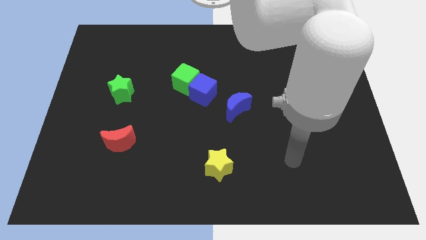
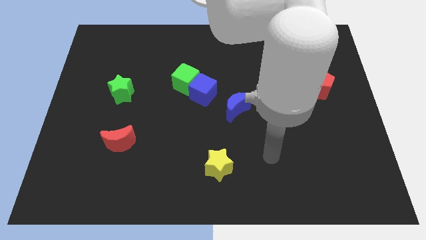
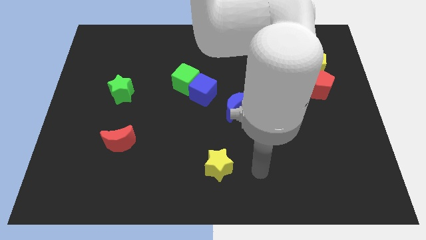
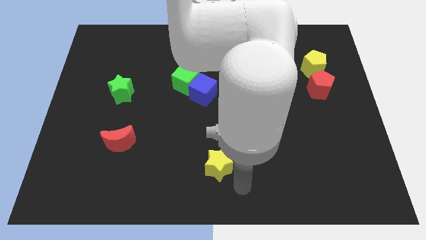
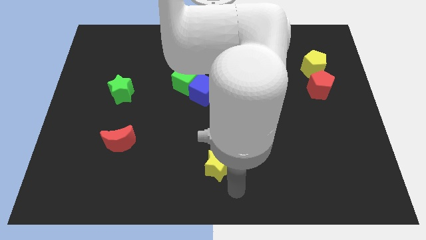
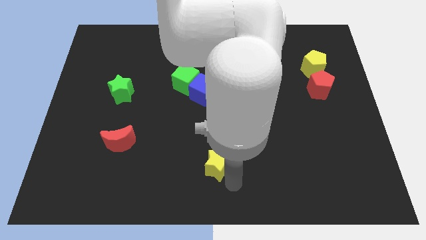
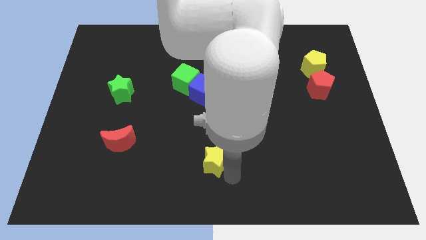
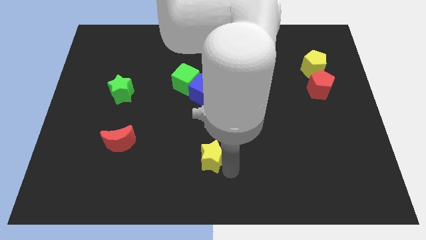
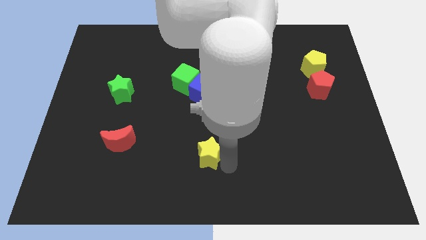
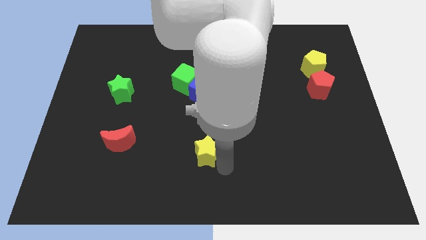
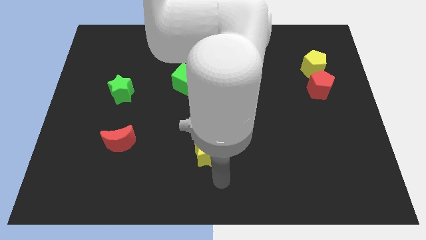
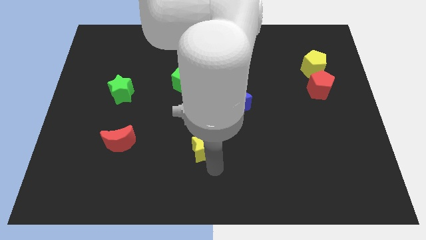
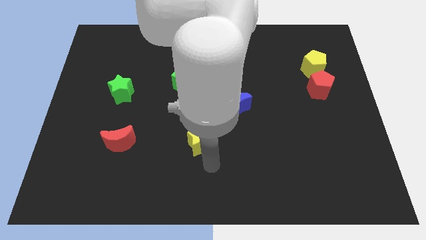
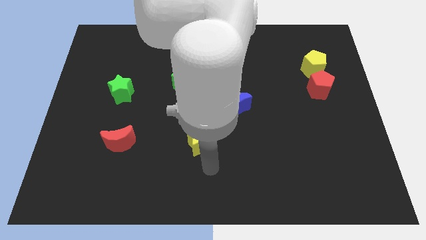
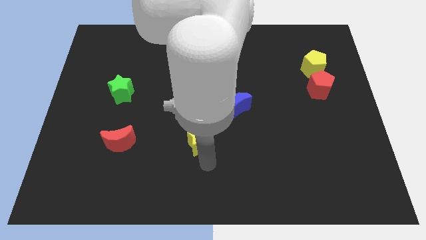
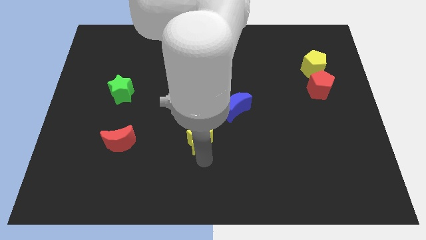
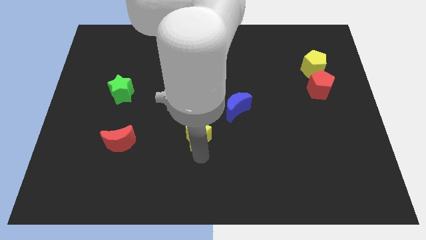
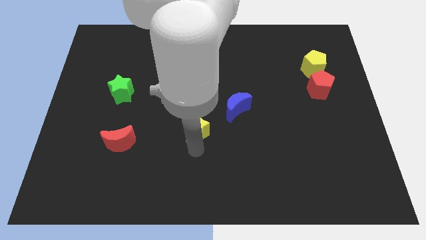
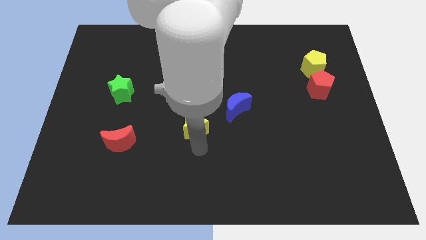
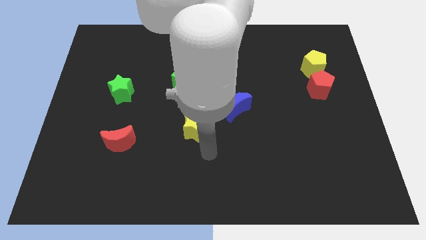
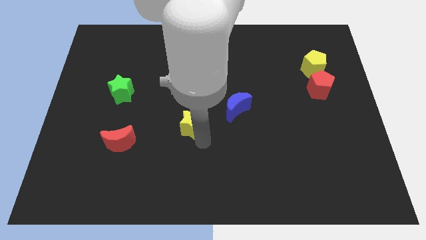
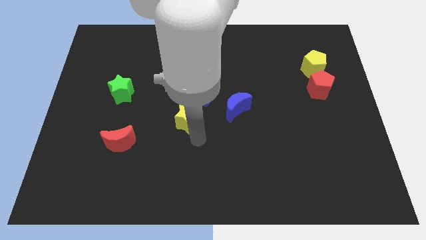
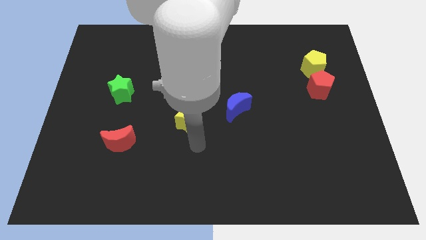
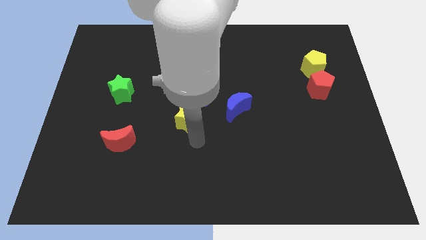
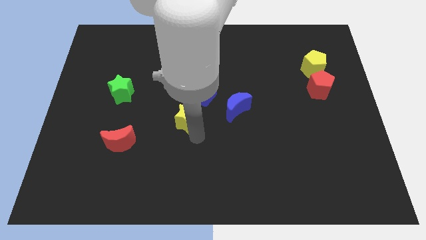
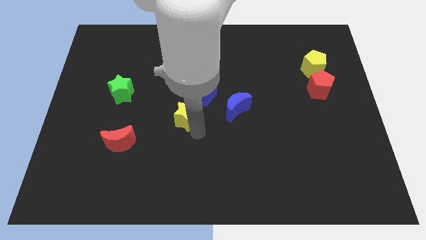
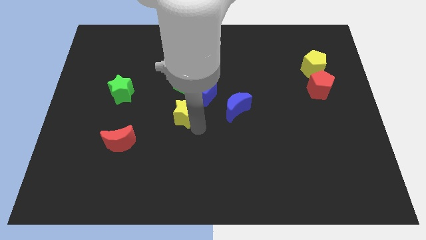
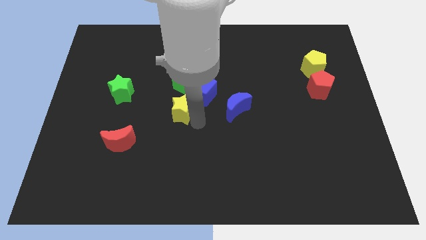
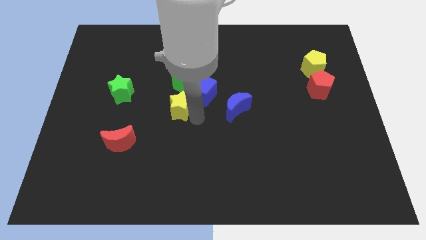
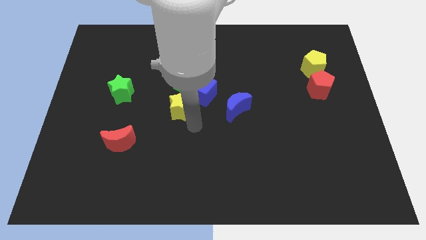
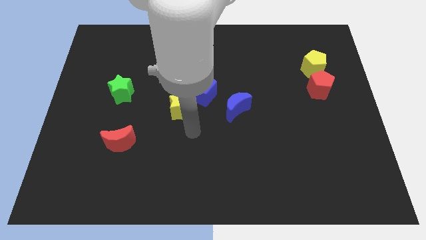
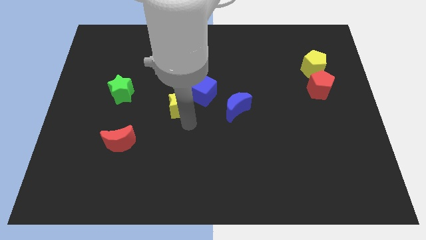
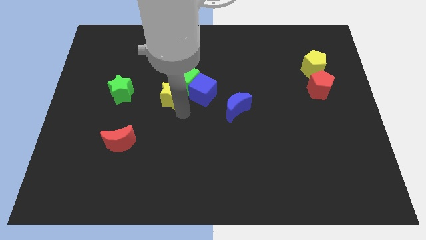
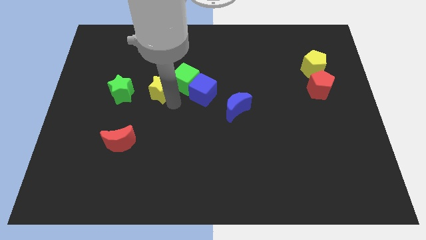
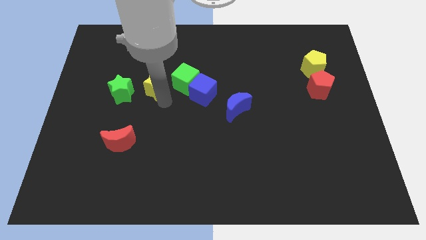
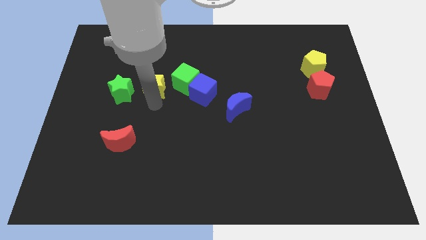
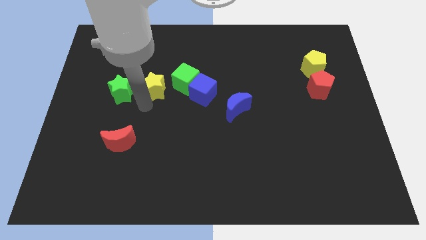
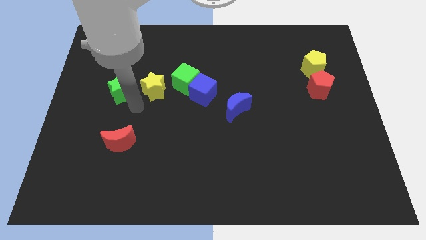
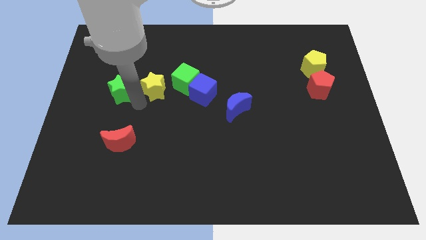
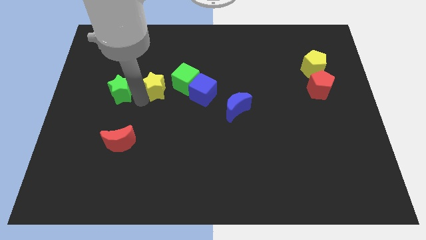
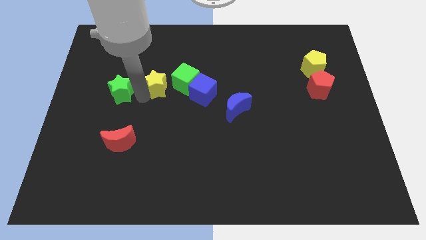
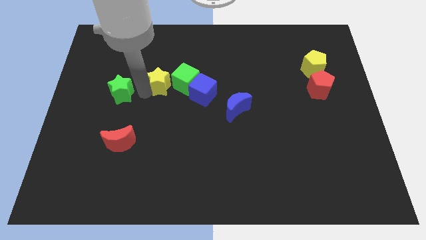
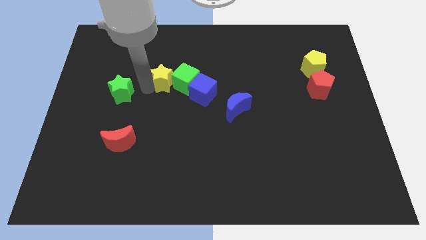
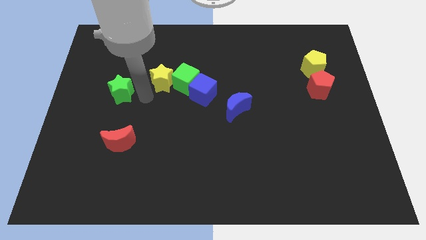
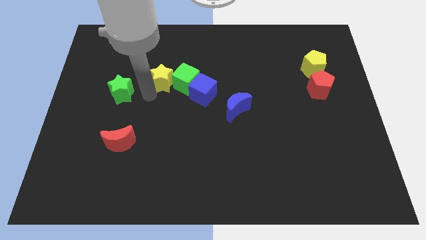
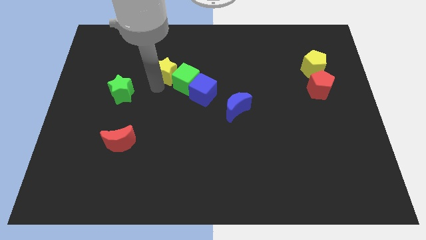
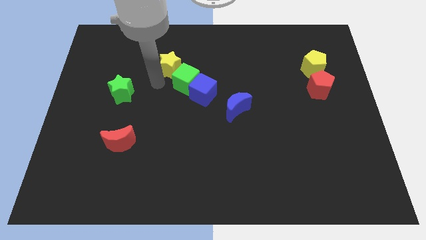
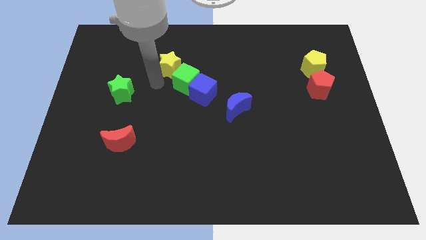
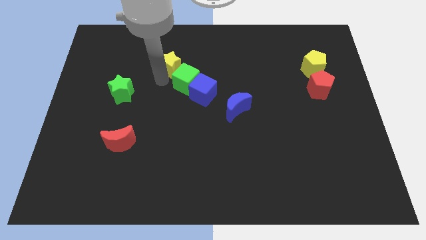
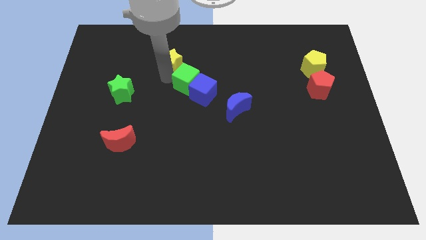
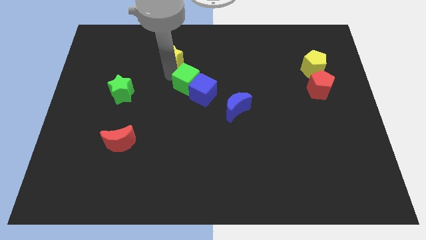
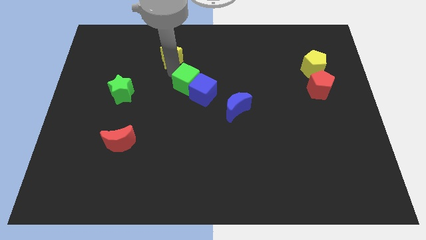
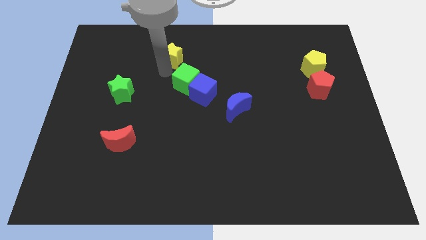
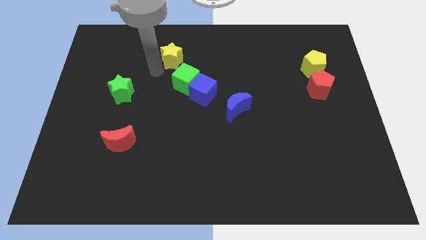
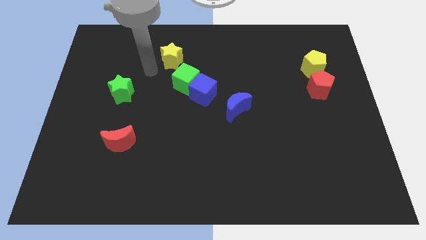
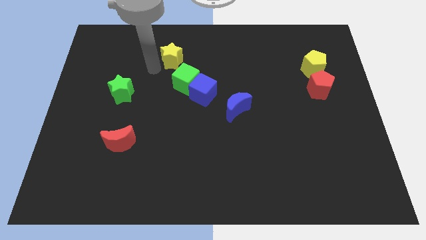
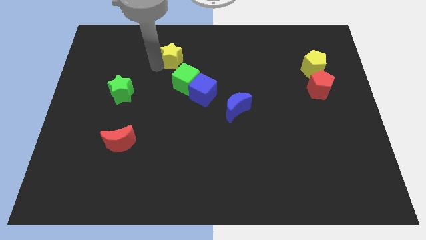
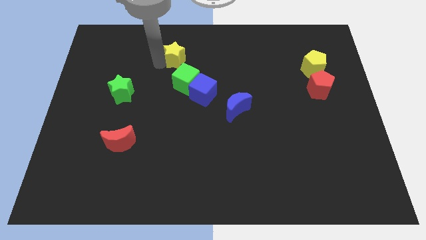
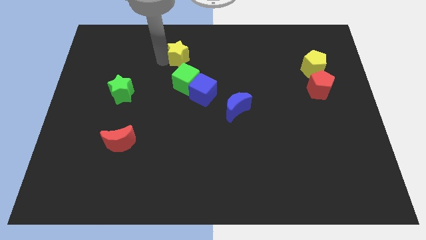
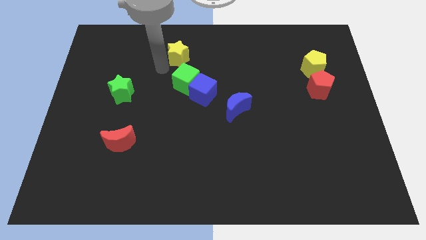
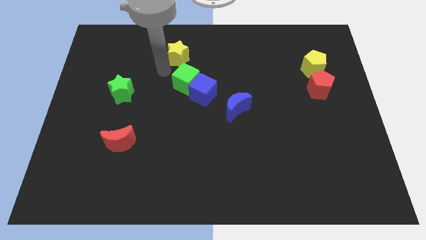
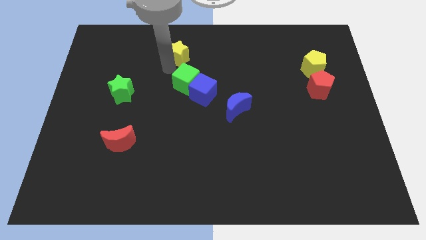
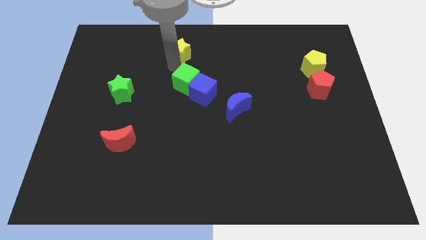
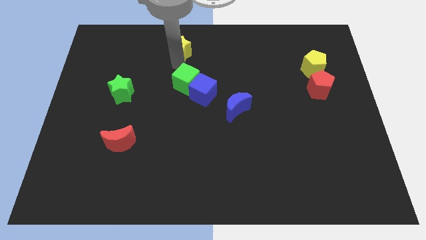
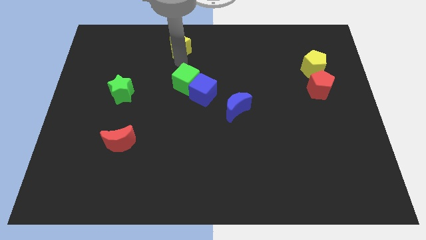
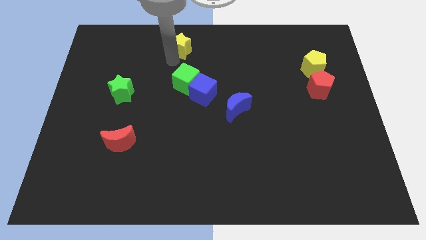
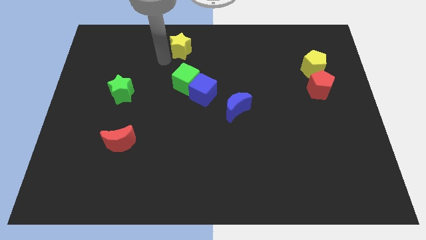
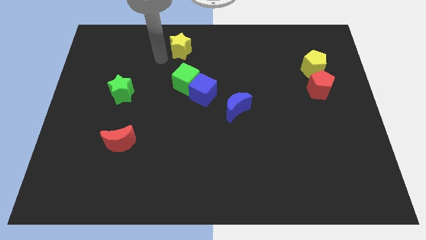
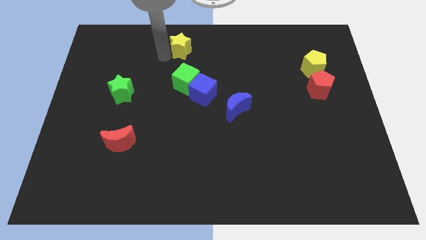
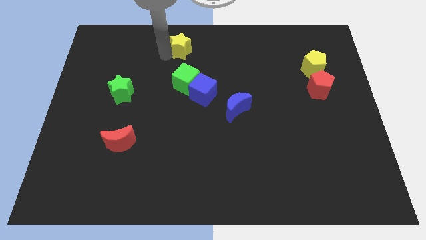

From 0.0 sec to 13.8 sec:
push the yellow star to the top
